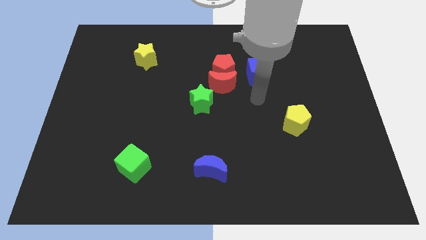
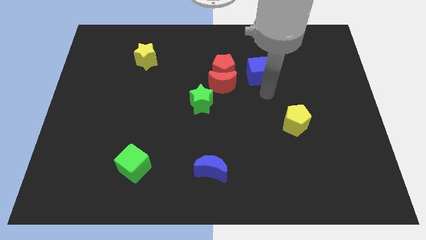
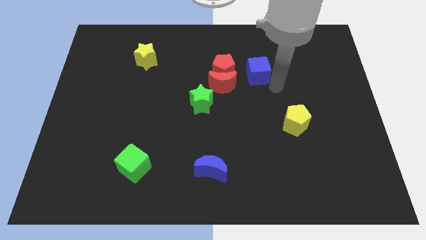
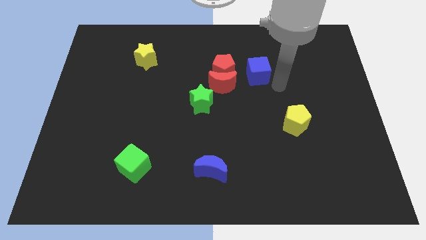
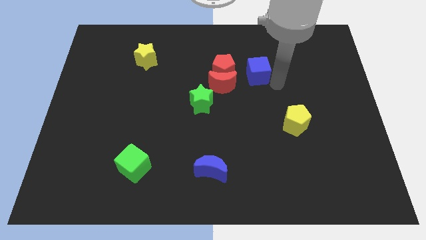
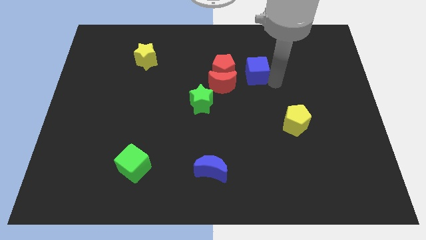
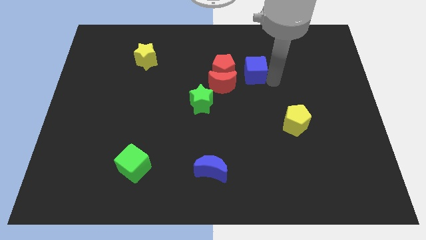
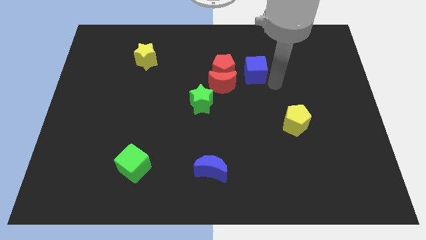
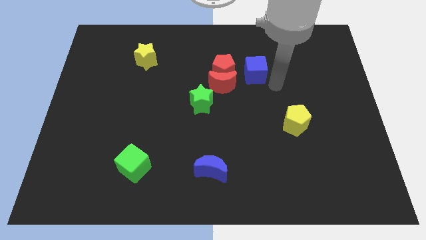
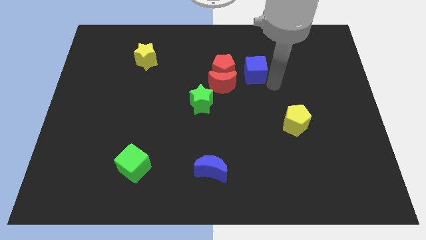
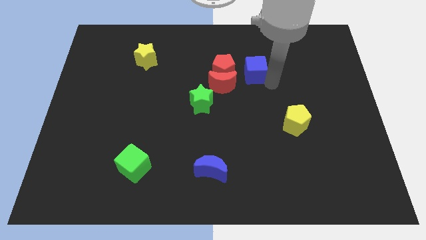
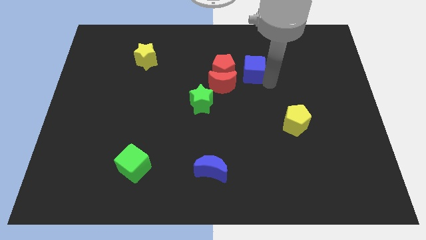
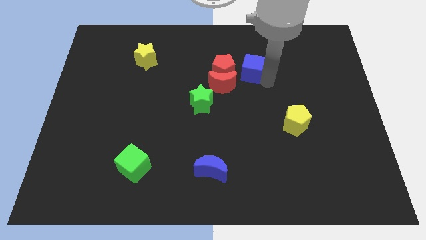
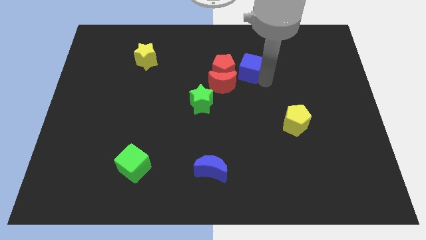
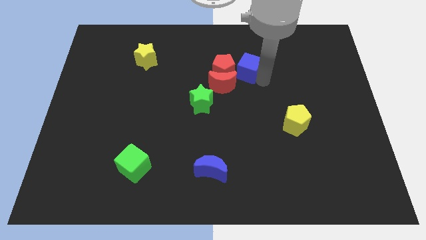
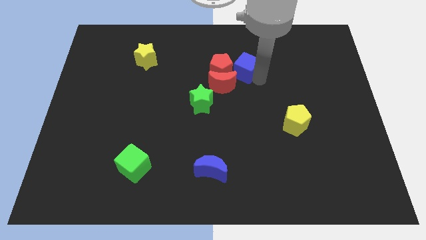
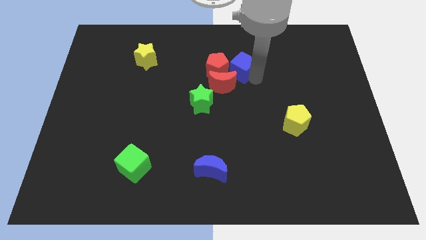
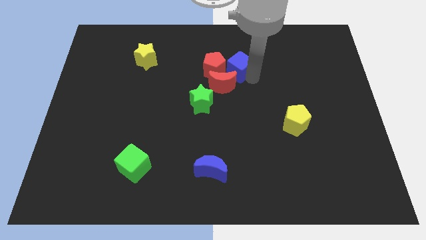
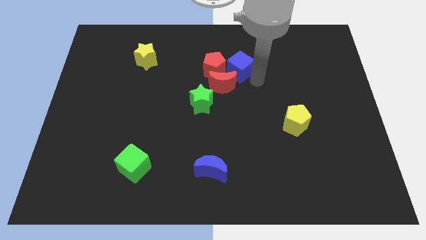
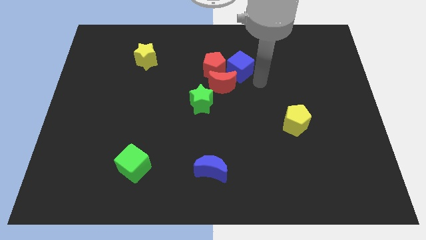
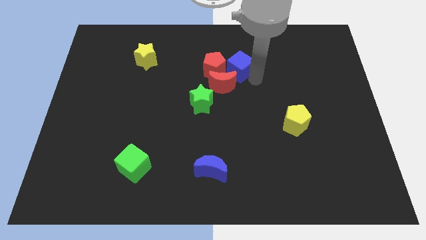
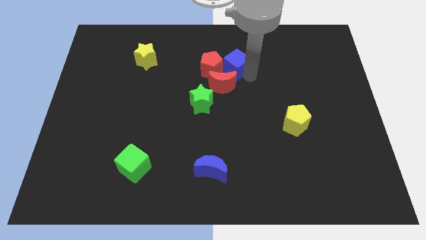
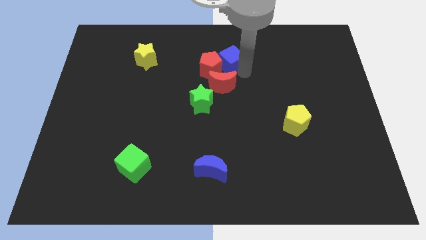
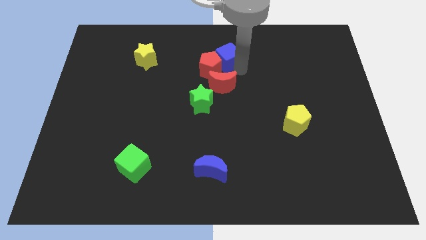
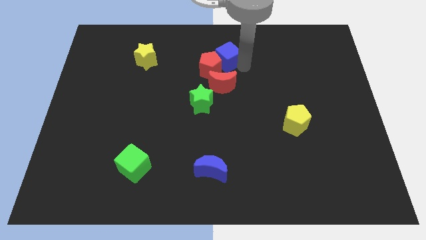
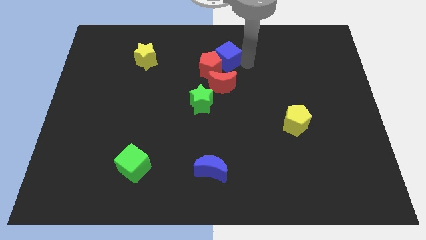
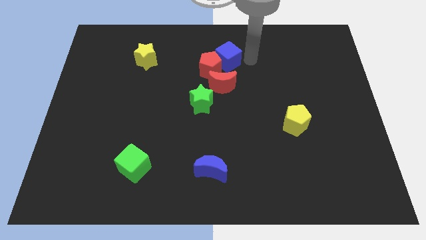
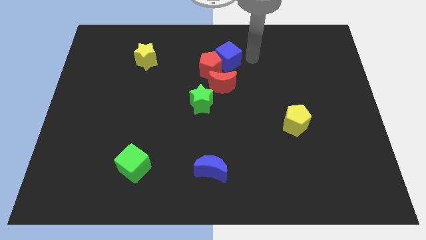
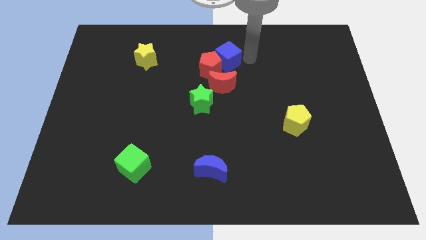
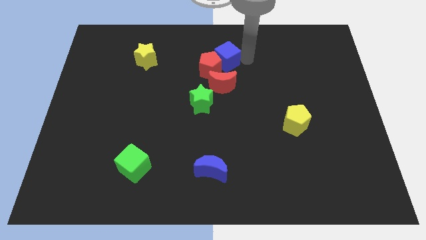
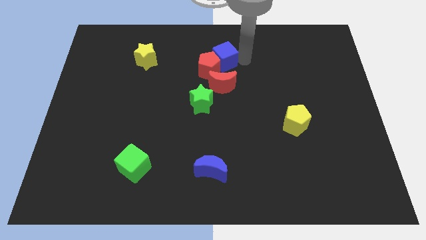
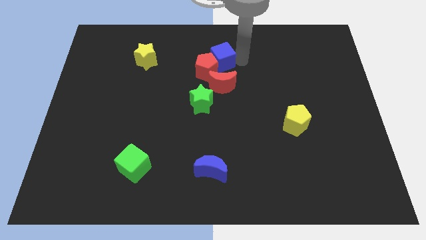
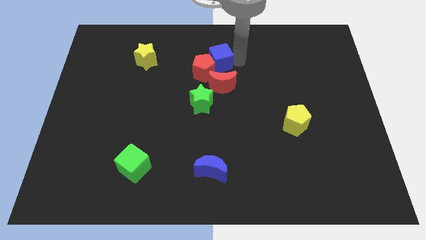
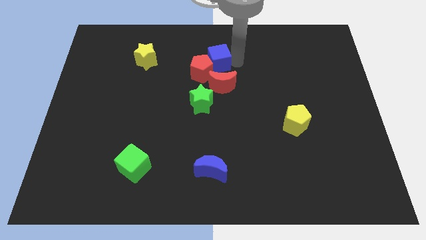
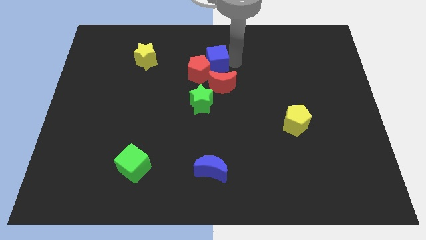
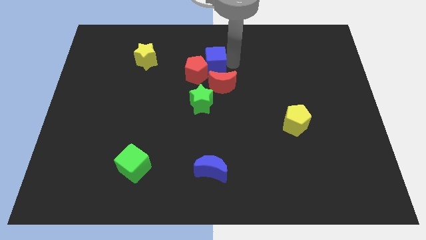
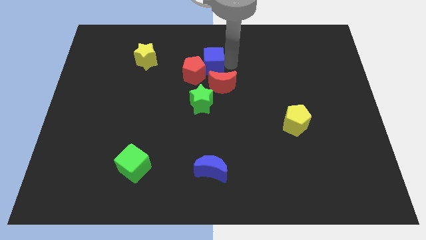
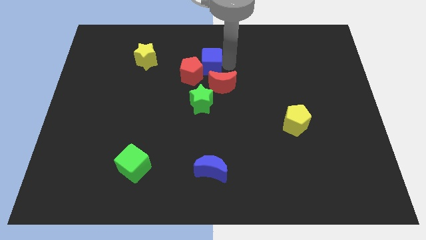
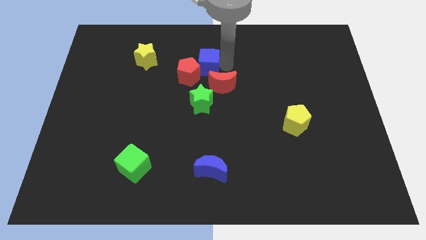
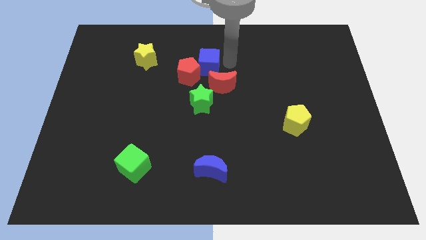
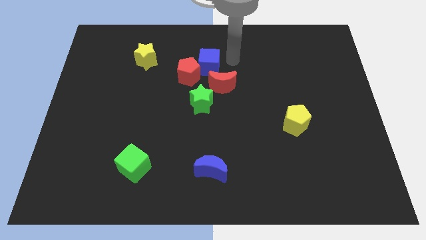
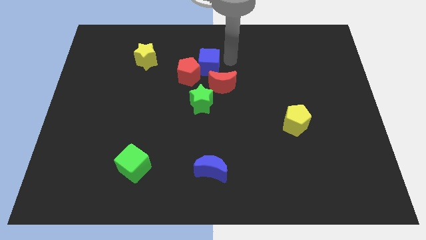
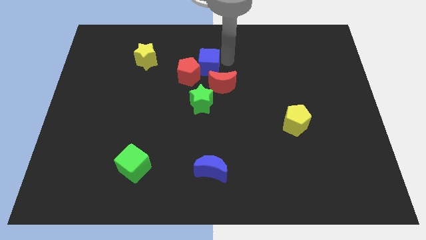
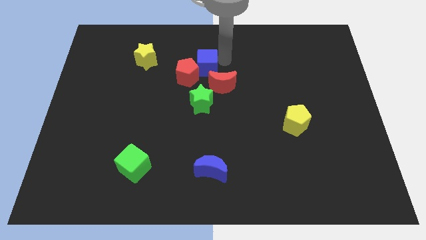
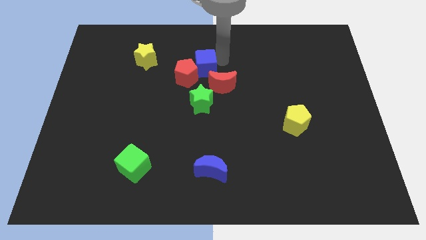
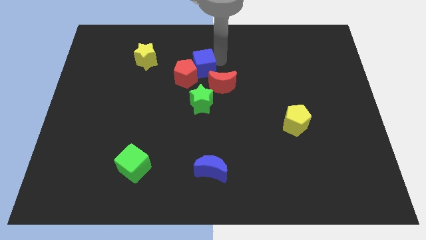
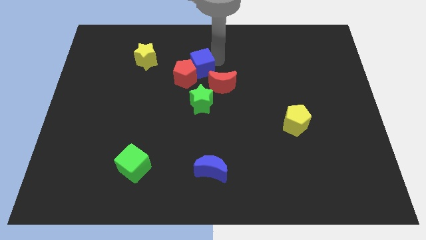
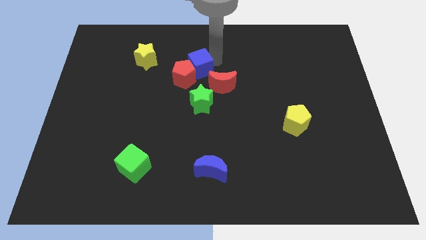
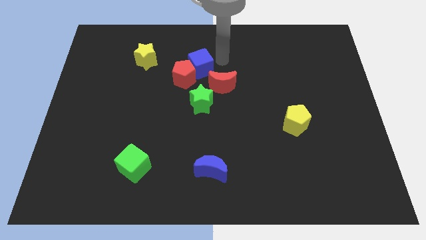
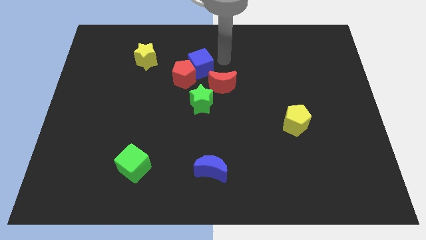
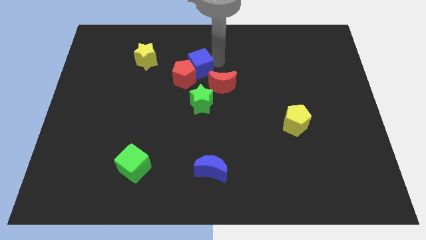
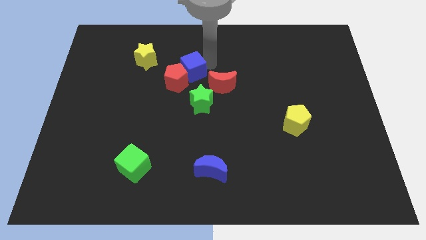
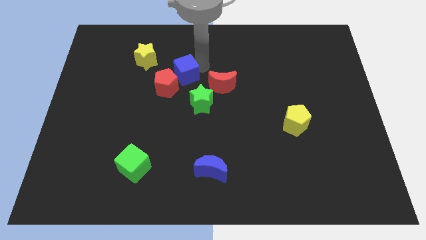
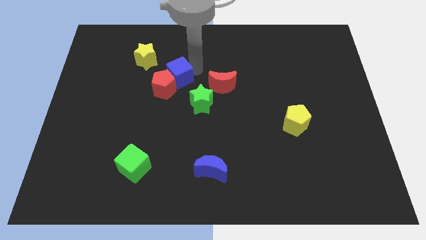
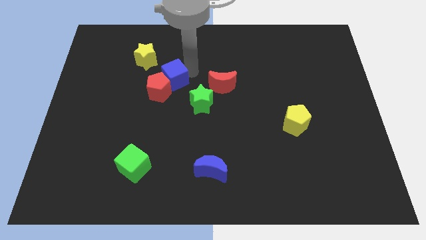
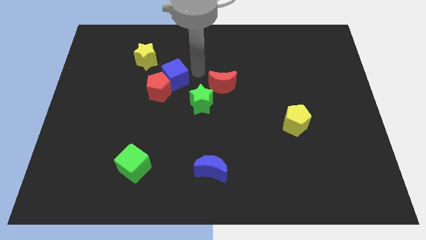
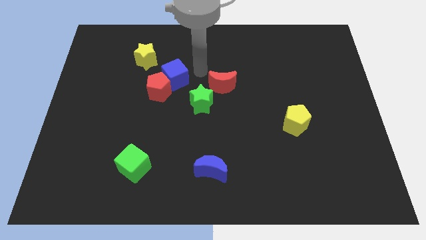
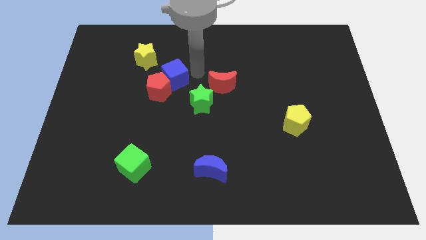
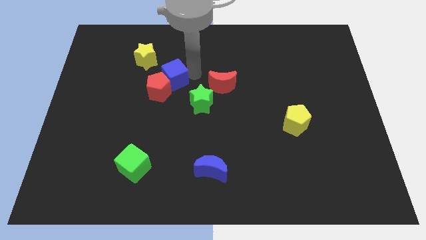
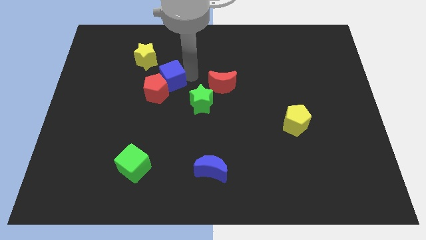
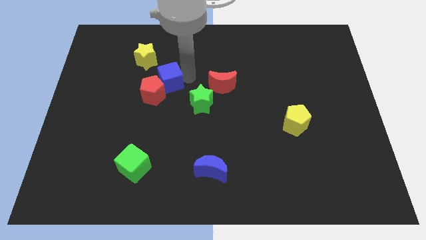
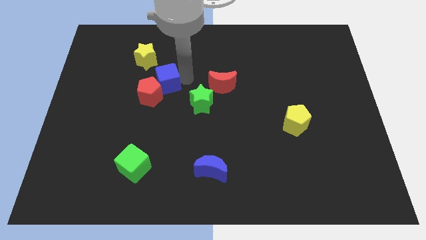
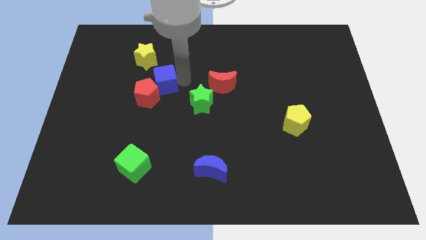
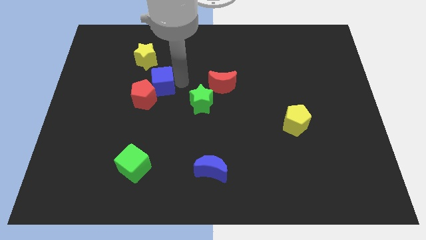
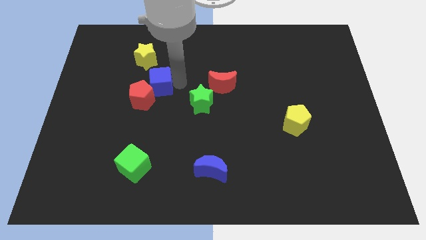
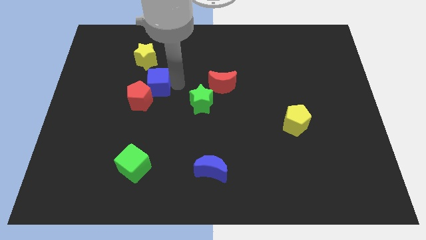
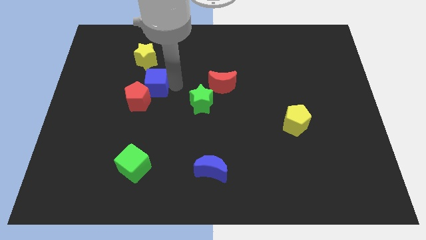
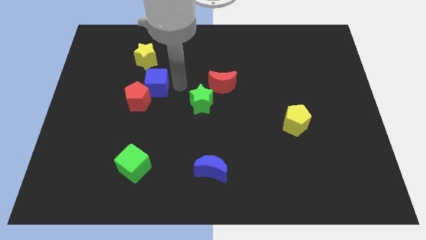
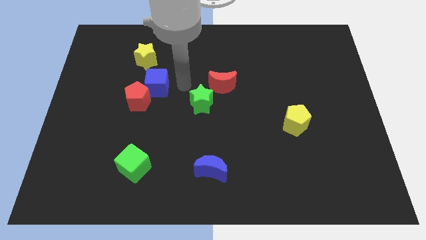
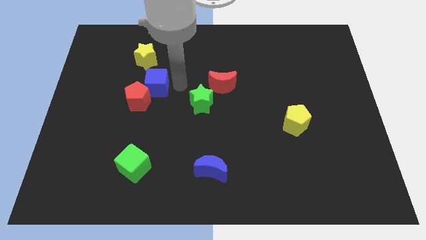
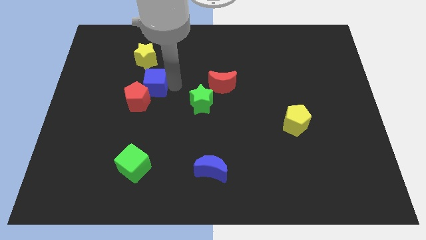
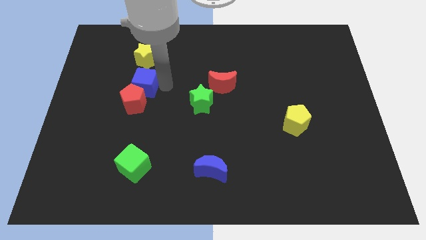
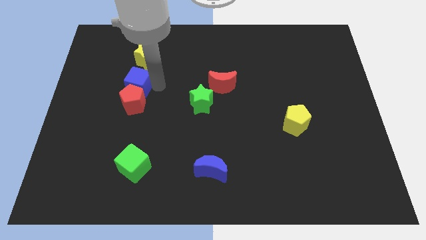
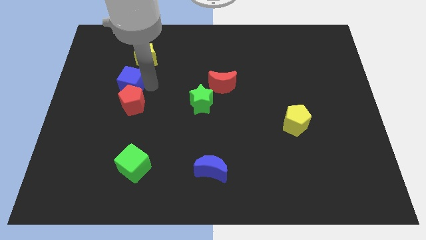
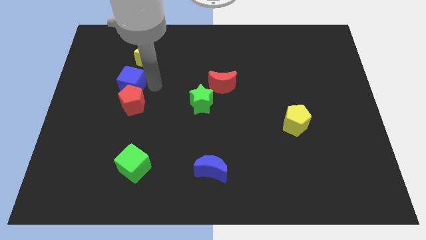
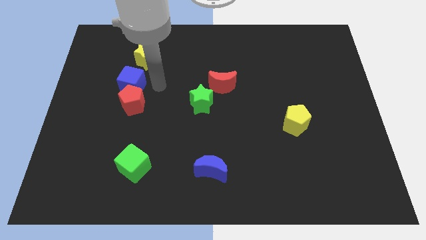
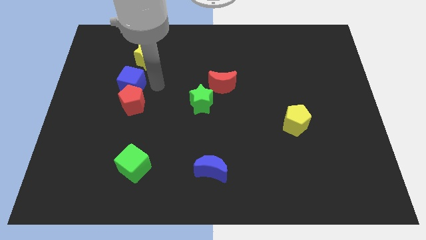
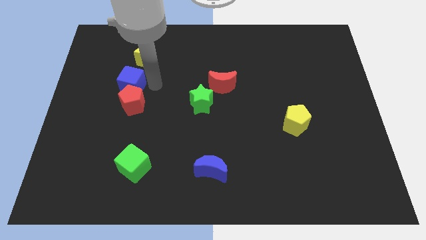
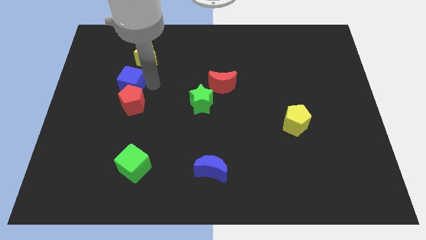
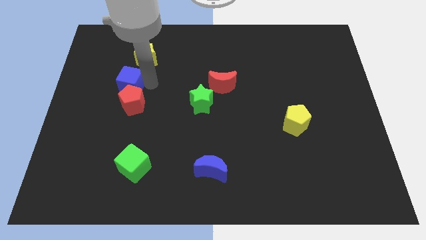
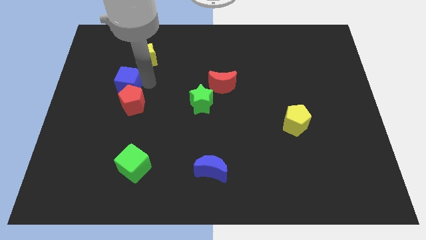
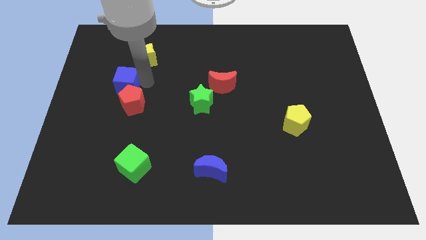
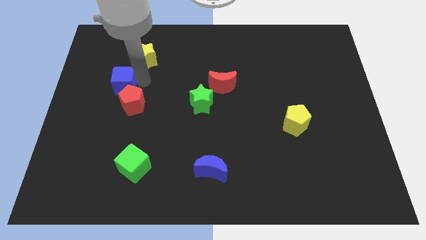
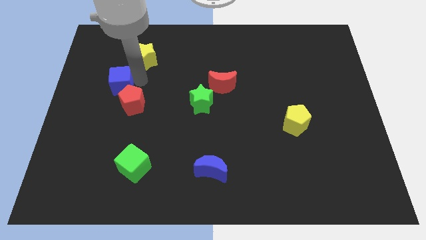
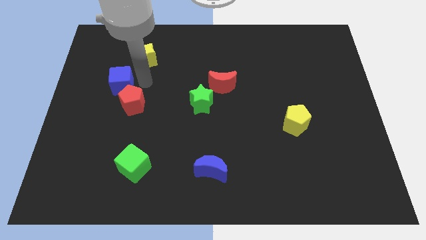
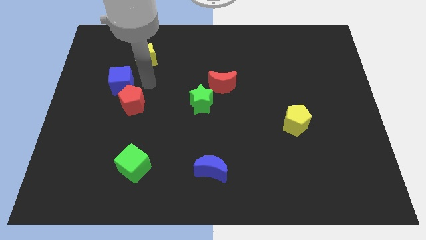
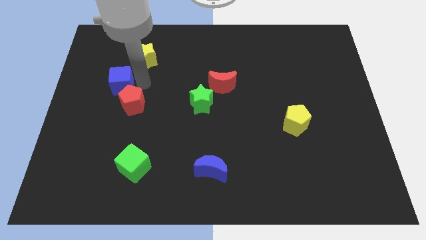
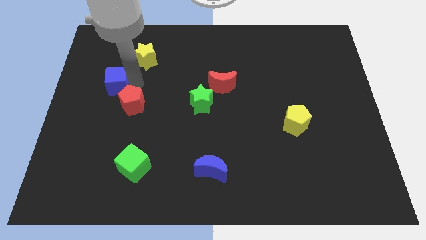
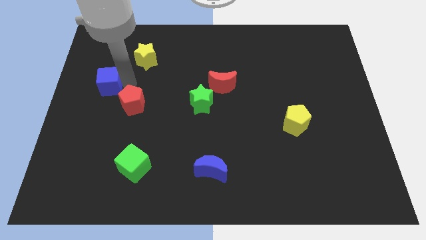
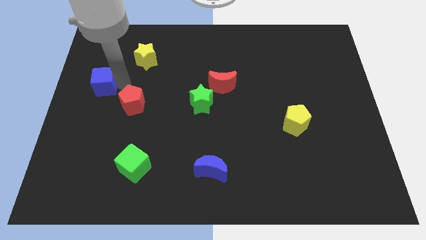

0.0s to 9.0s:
put the blue cube to the left side
